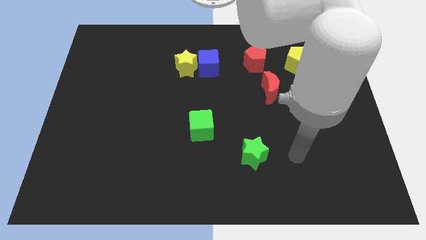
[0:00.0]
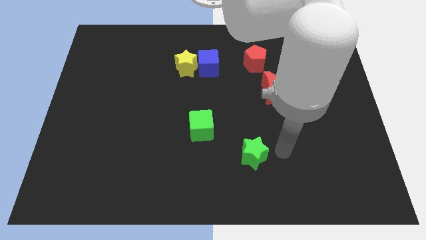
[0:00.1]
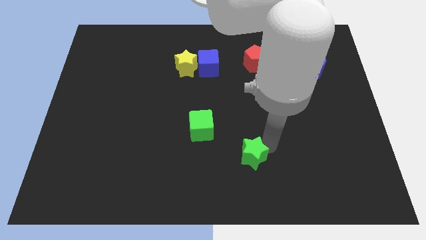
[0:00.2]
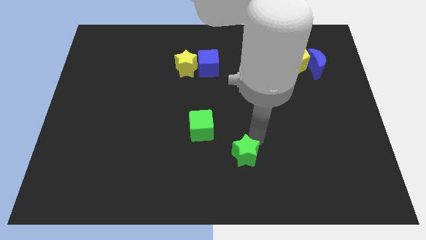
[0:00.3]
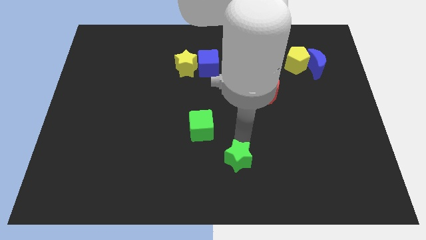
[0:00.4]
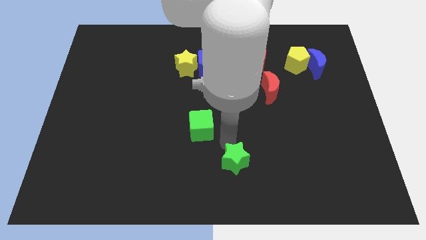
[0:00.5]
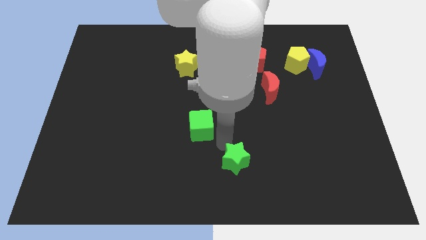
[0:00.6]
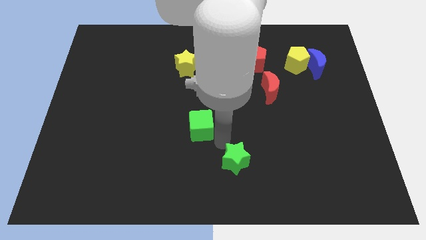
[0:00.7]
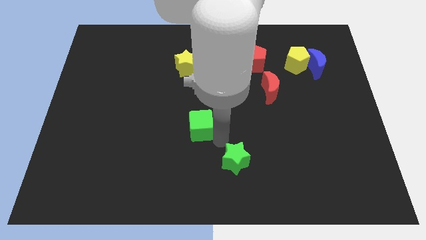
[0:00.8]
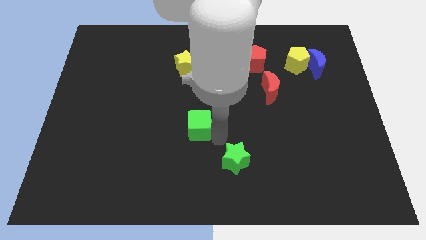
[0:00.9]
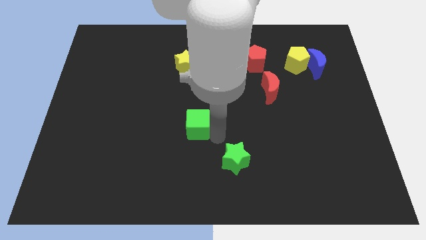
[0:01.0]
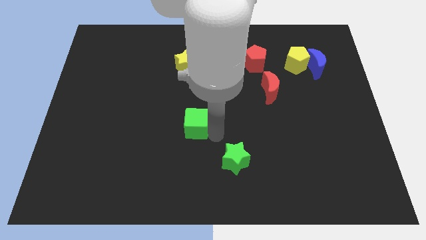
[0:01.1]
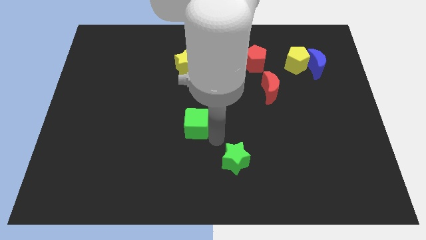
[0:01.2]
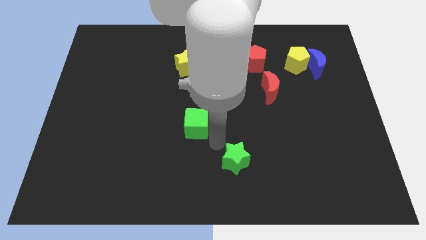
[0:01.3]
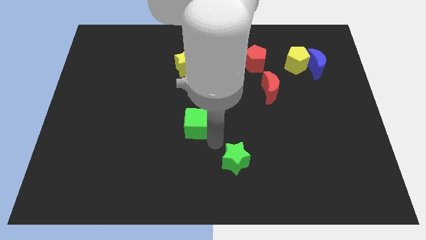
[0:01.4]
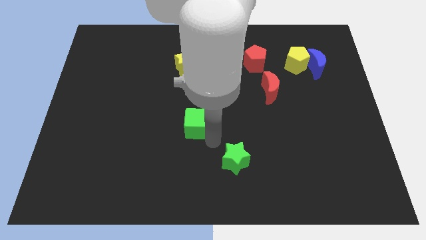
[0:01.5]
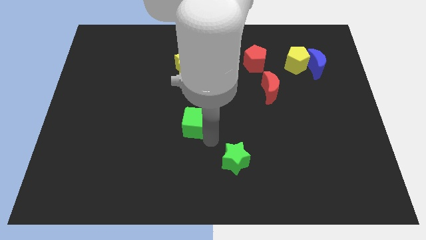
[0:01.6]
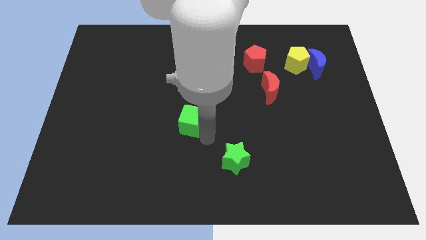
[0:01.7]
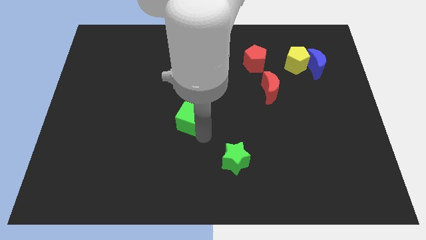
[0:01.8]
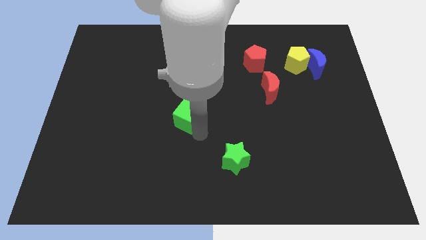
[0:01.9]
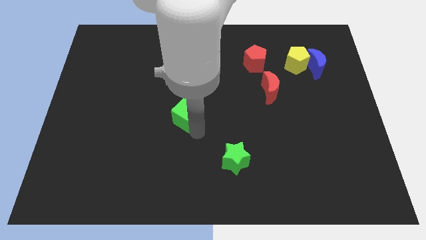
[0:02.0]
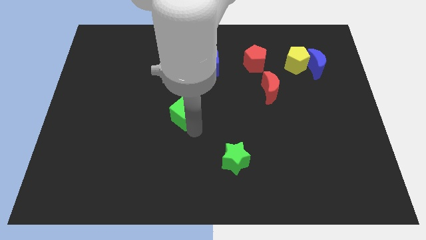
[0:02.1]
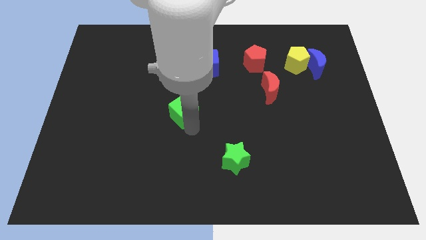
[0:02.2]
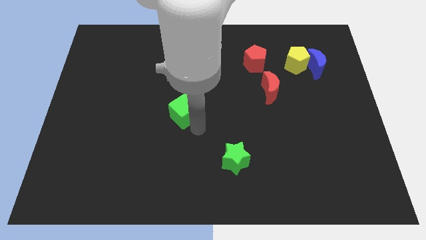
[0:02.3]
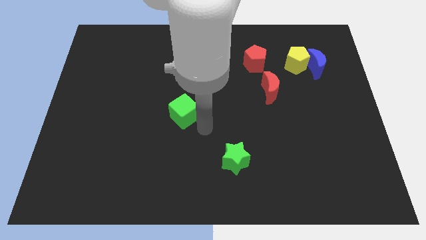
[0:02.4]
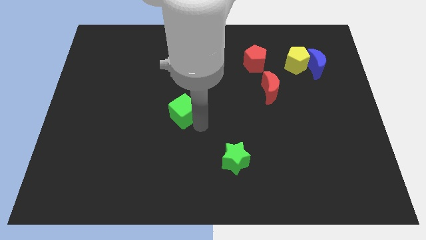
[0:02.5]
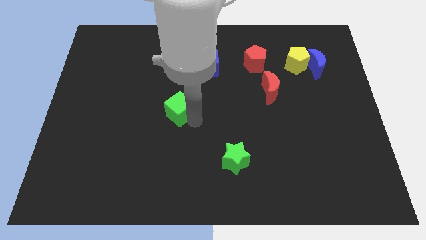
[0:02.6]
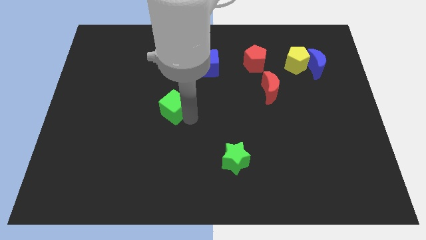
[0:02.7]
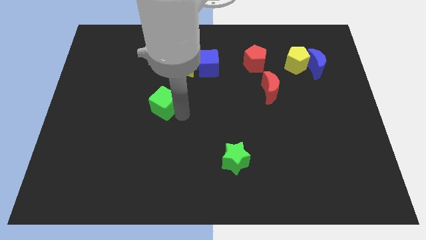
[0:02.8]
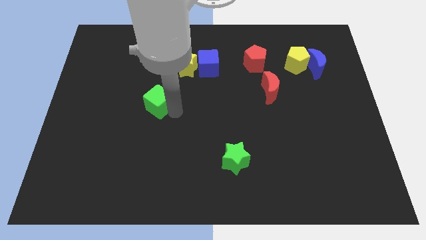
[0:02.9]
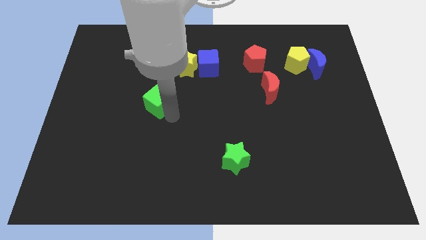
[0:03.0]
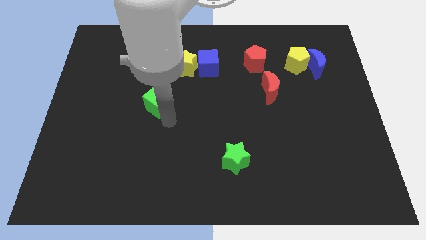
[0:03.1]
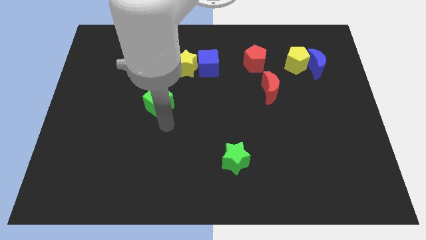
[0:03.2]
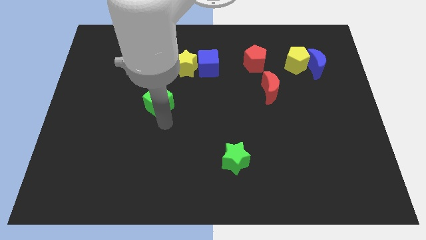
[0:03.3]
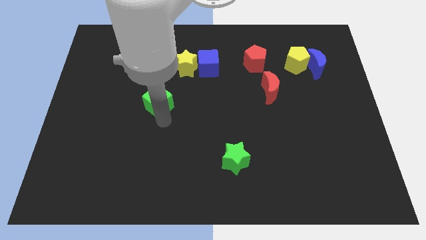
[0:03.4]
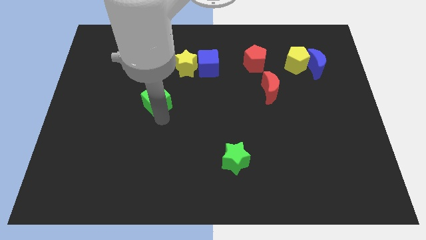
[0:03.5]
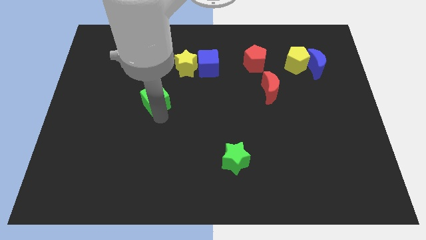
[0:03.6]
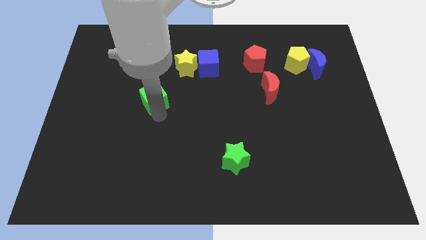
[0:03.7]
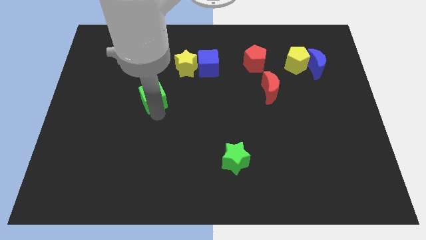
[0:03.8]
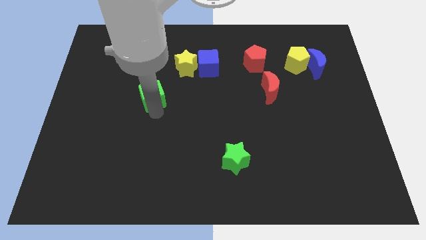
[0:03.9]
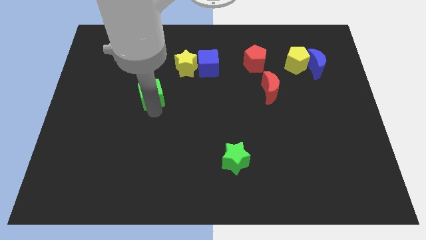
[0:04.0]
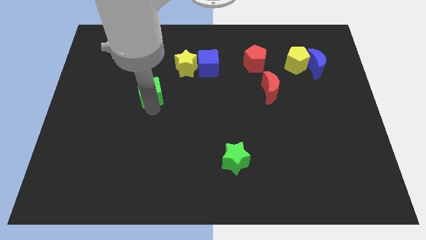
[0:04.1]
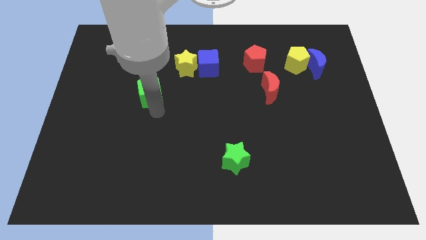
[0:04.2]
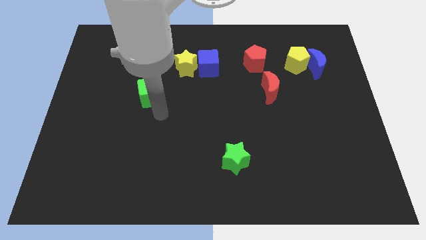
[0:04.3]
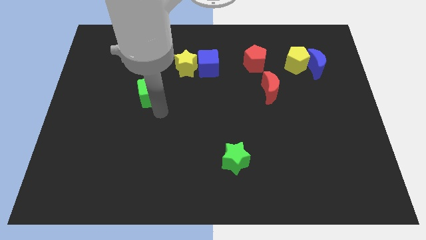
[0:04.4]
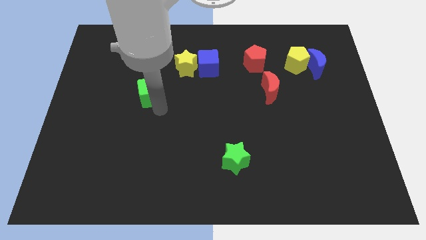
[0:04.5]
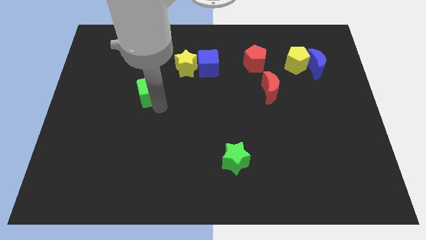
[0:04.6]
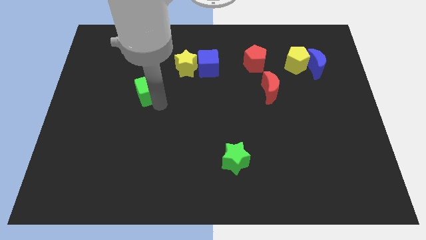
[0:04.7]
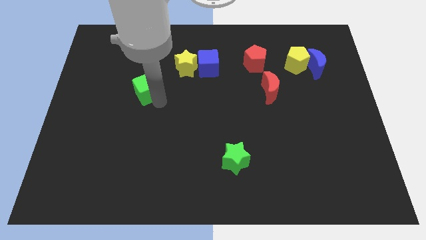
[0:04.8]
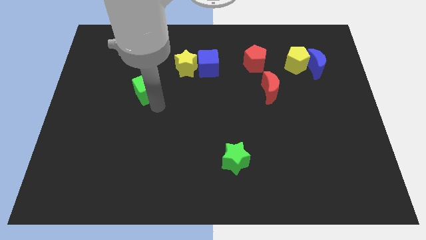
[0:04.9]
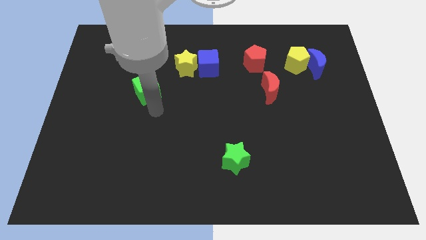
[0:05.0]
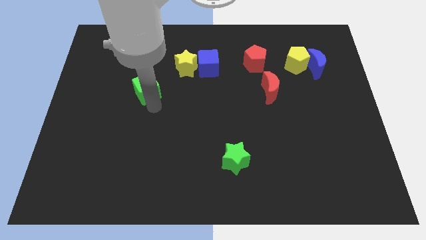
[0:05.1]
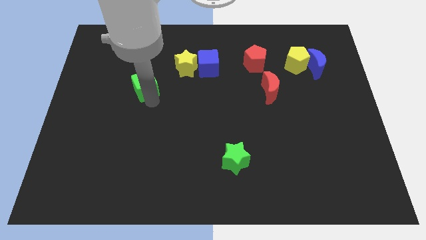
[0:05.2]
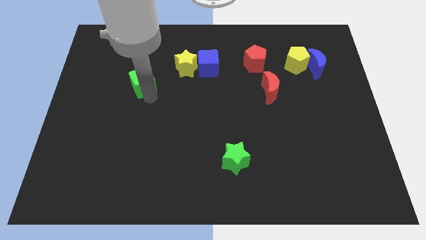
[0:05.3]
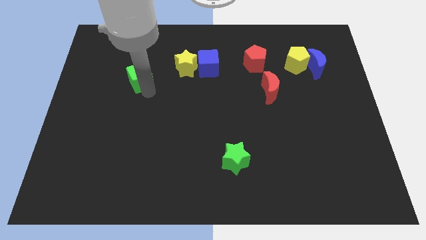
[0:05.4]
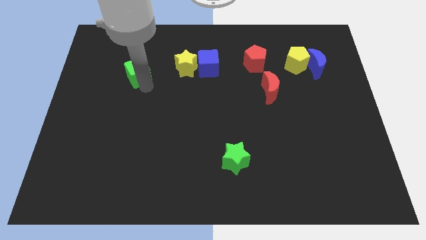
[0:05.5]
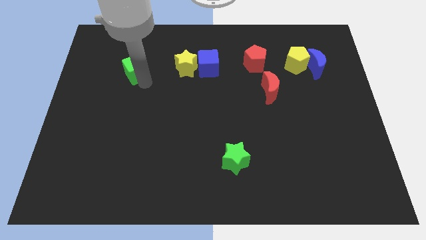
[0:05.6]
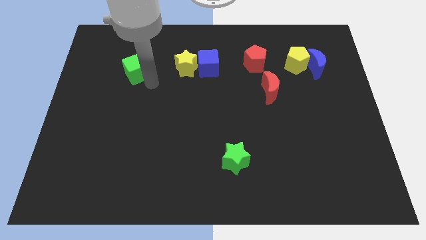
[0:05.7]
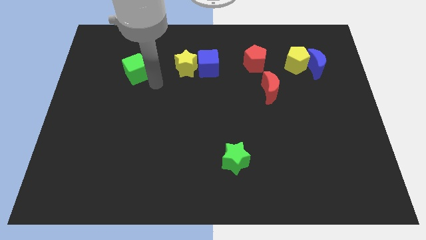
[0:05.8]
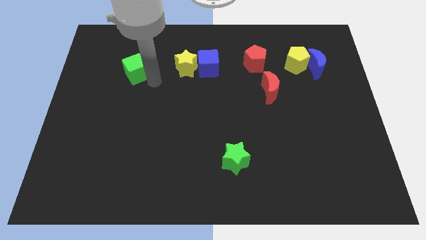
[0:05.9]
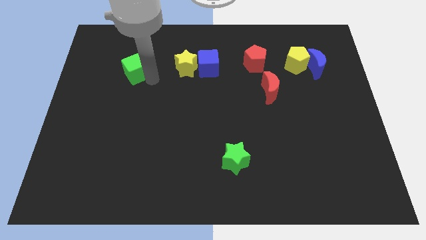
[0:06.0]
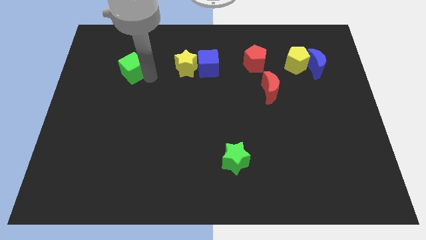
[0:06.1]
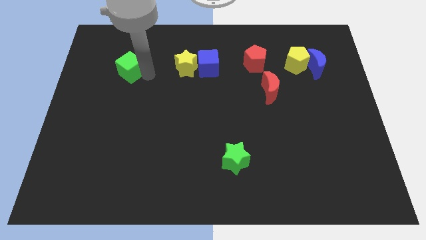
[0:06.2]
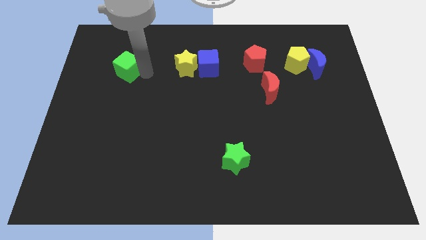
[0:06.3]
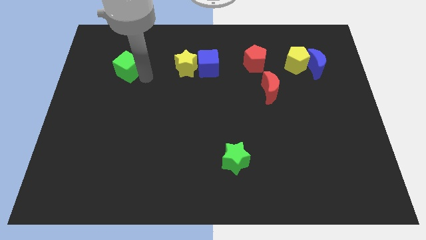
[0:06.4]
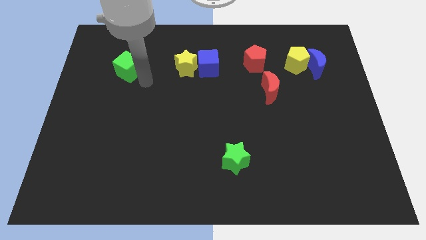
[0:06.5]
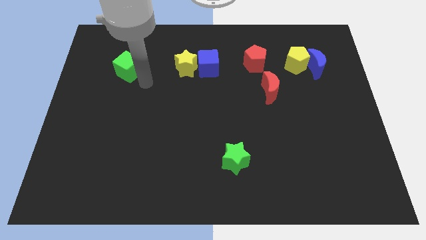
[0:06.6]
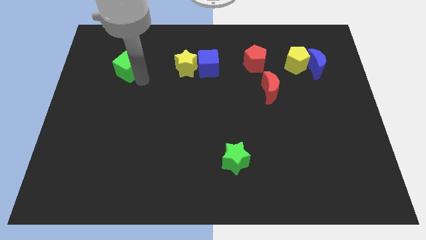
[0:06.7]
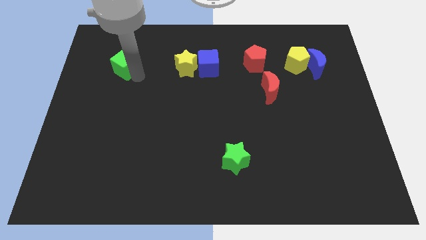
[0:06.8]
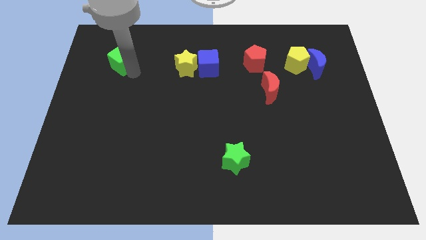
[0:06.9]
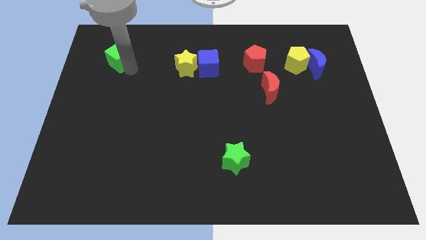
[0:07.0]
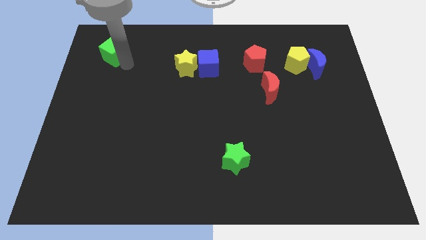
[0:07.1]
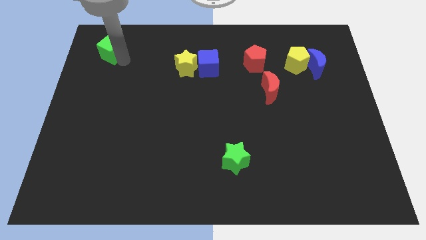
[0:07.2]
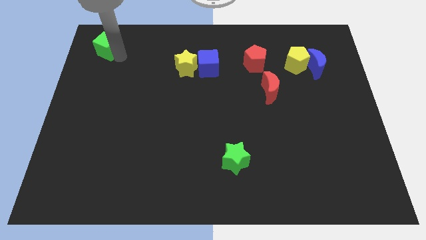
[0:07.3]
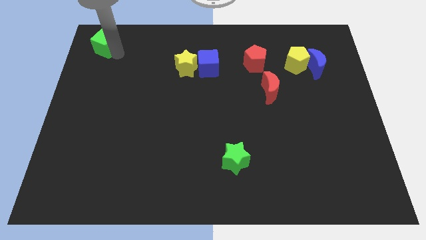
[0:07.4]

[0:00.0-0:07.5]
put the green cube to the top left
